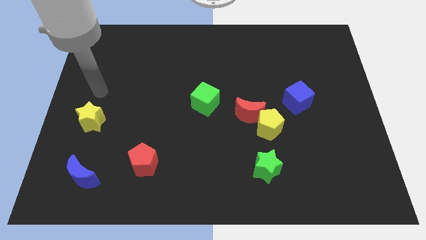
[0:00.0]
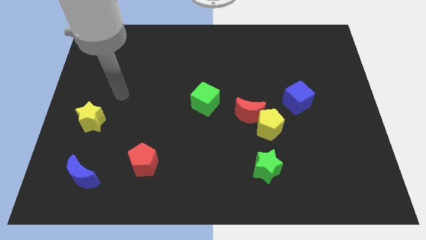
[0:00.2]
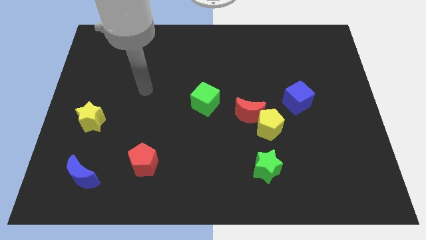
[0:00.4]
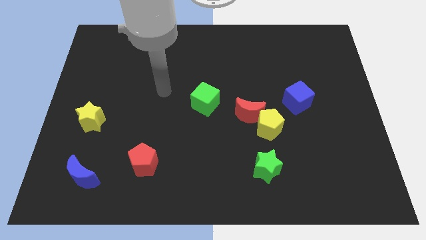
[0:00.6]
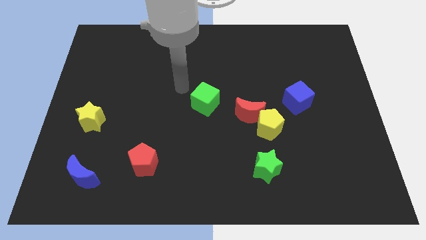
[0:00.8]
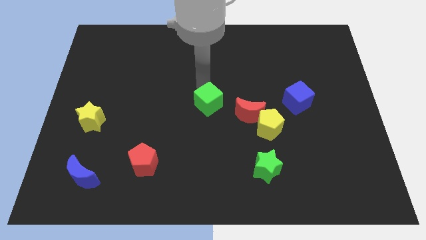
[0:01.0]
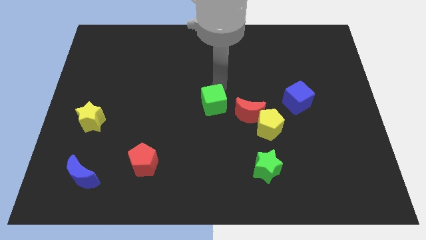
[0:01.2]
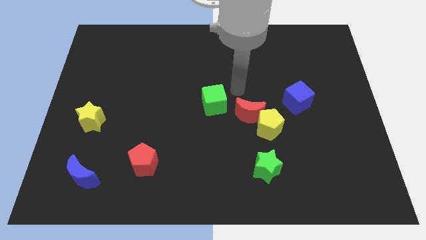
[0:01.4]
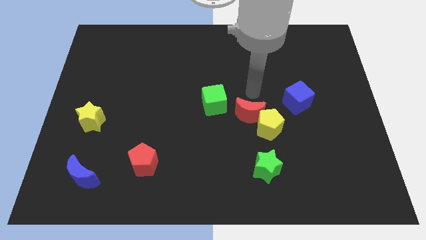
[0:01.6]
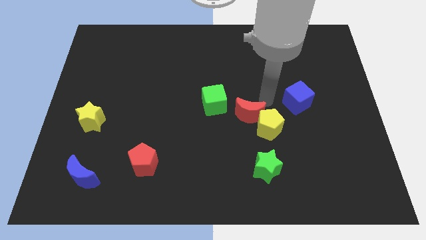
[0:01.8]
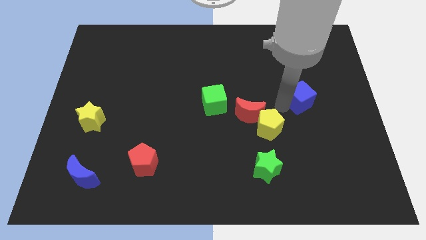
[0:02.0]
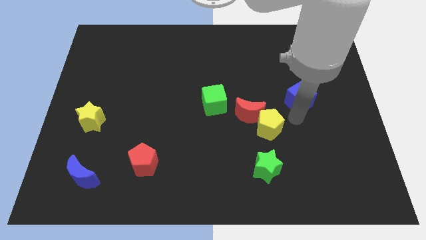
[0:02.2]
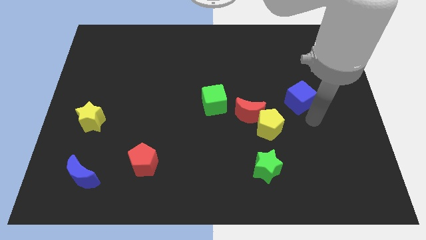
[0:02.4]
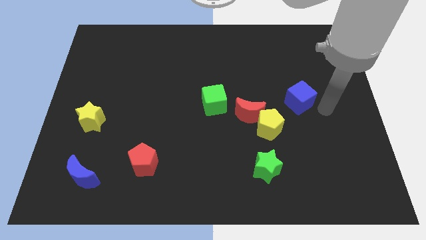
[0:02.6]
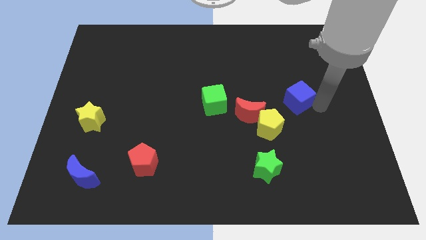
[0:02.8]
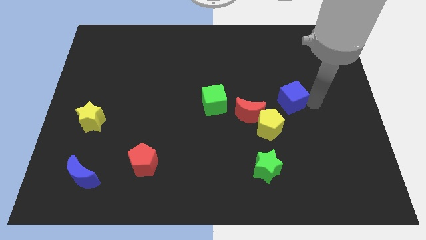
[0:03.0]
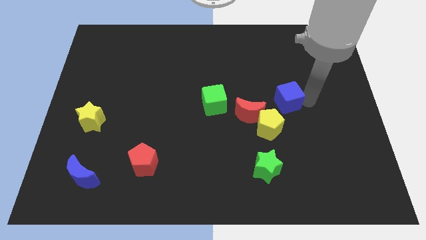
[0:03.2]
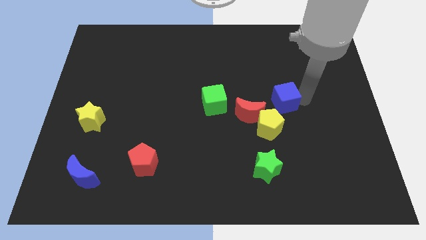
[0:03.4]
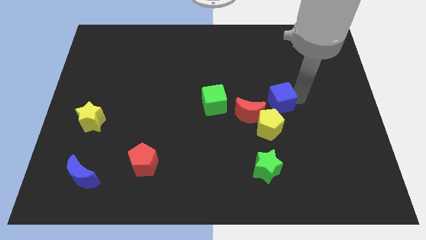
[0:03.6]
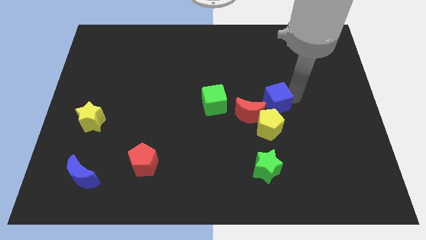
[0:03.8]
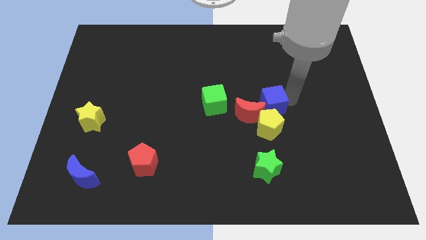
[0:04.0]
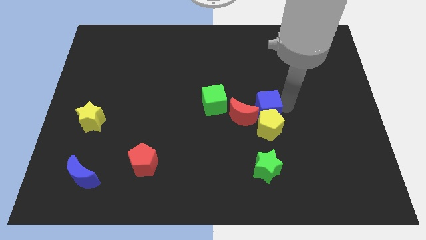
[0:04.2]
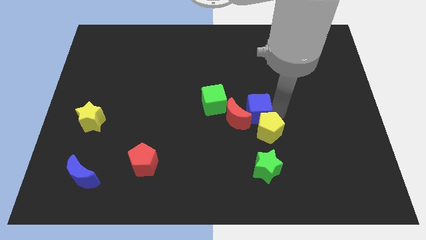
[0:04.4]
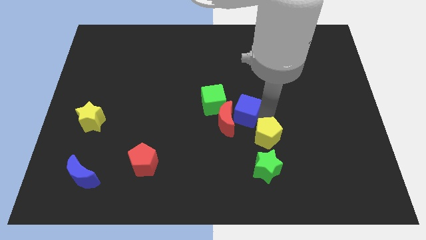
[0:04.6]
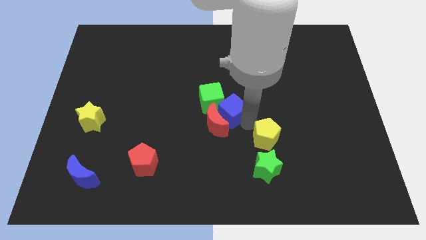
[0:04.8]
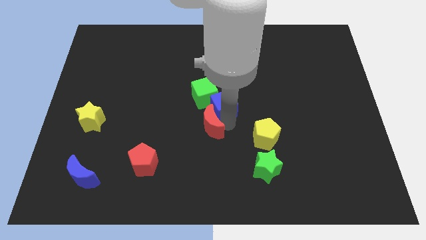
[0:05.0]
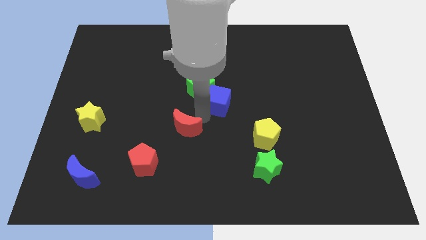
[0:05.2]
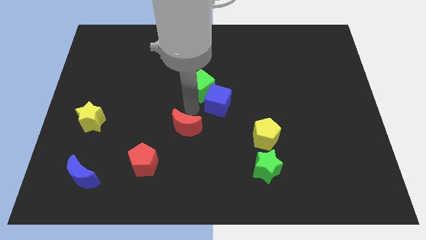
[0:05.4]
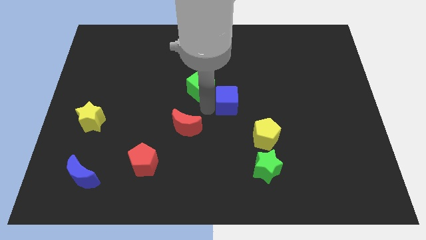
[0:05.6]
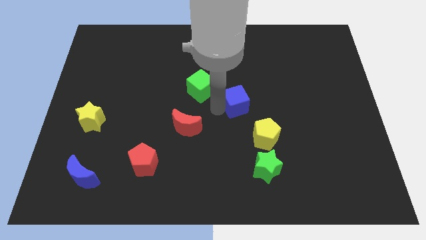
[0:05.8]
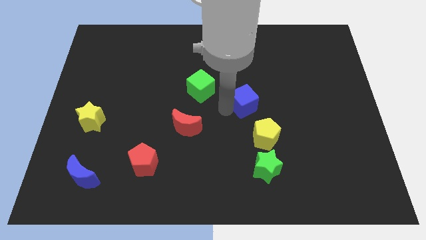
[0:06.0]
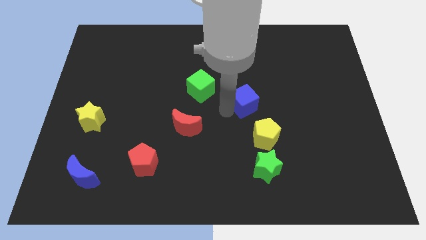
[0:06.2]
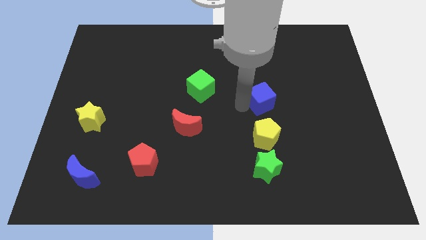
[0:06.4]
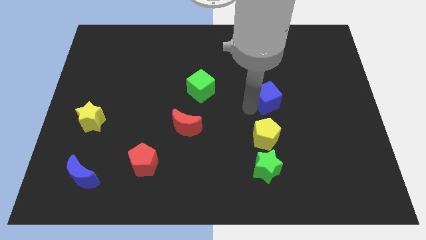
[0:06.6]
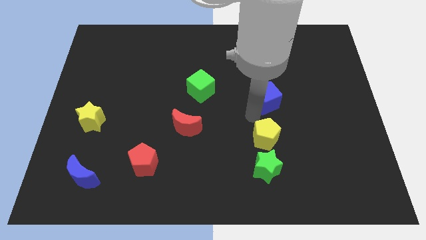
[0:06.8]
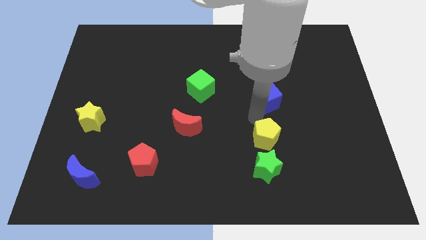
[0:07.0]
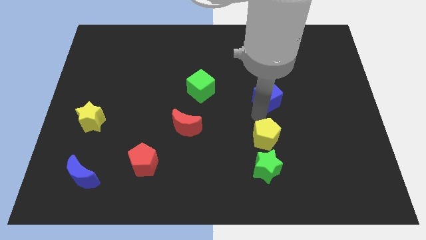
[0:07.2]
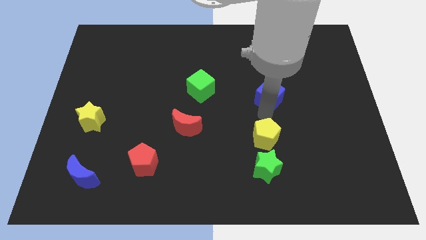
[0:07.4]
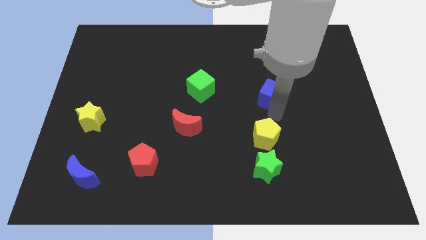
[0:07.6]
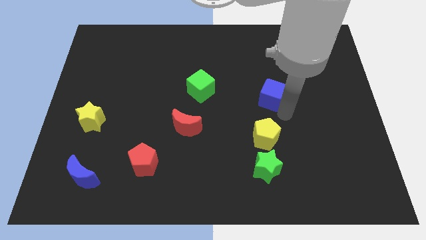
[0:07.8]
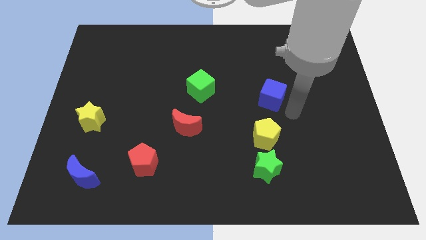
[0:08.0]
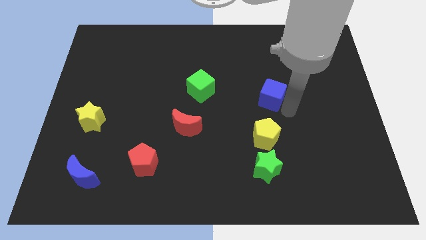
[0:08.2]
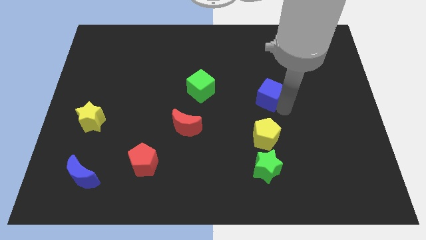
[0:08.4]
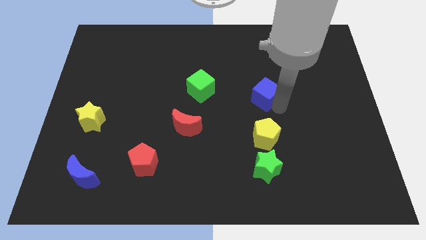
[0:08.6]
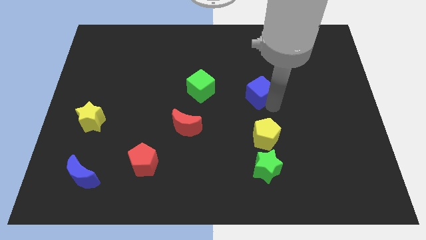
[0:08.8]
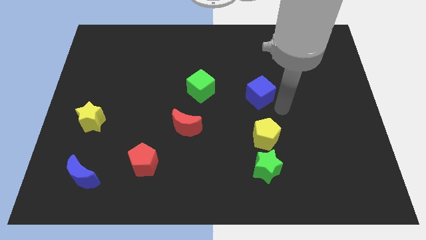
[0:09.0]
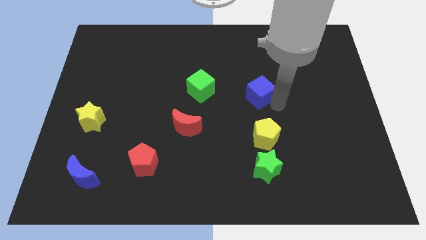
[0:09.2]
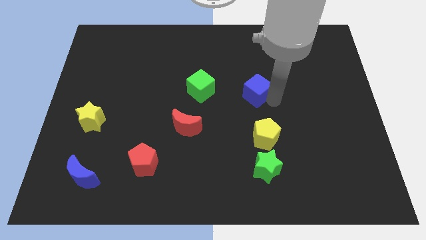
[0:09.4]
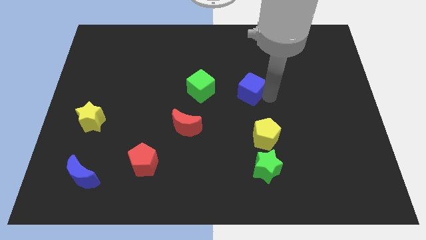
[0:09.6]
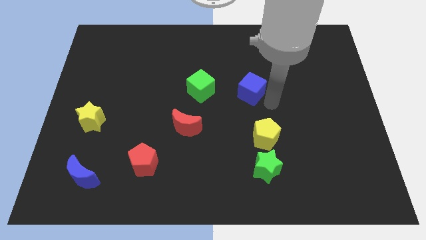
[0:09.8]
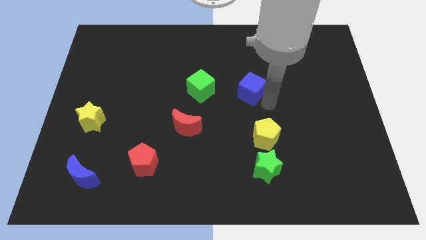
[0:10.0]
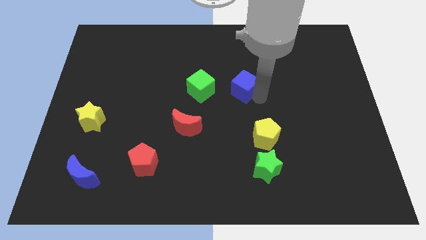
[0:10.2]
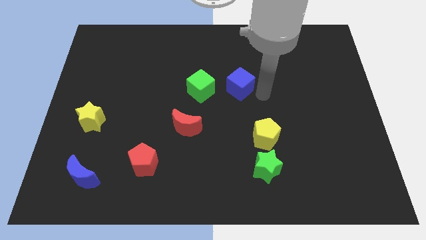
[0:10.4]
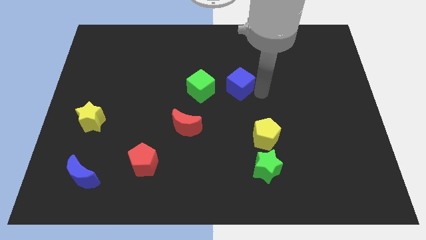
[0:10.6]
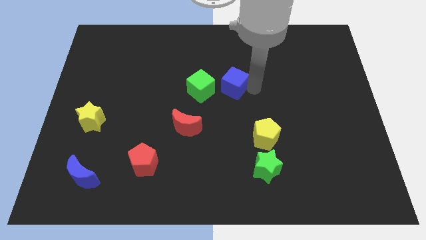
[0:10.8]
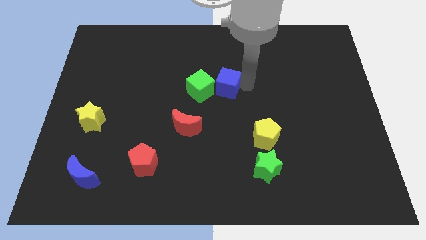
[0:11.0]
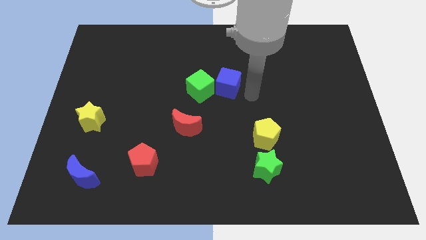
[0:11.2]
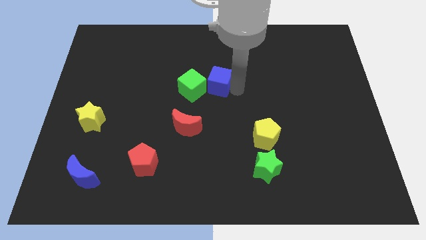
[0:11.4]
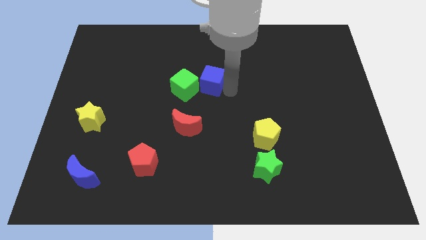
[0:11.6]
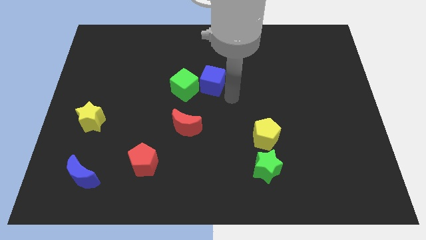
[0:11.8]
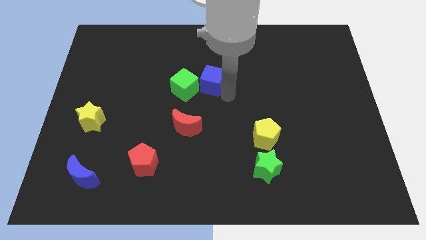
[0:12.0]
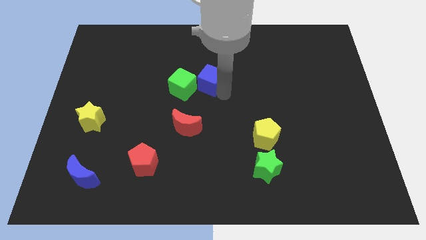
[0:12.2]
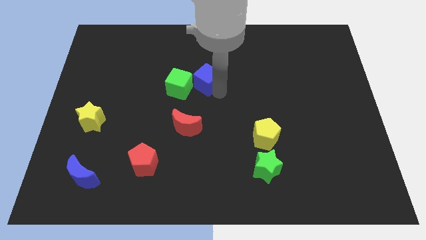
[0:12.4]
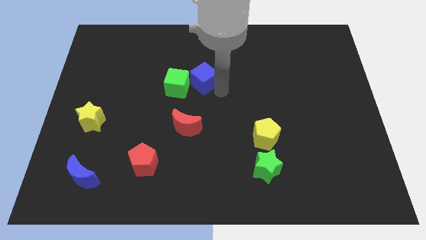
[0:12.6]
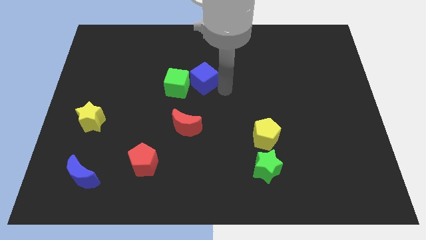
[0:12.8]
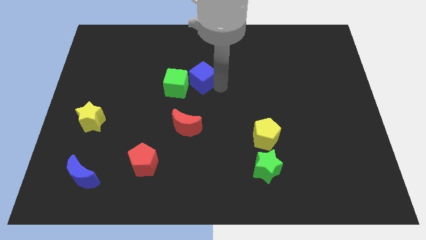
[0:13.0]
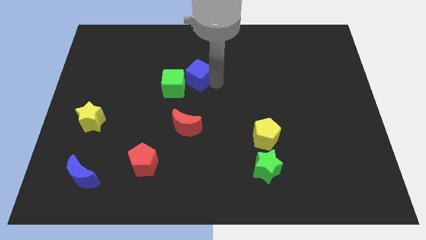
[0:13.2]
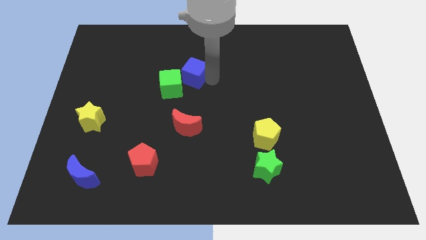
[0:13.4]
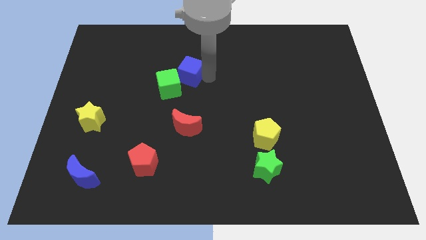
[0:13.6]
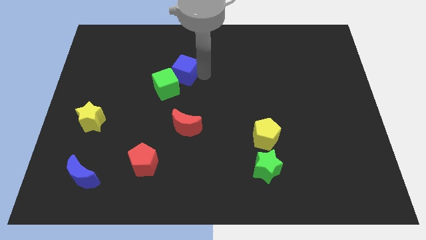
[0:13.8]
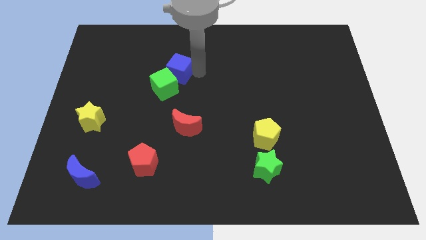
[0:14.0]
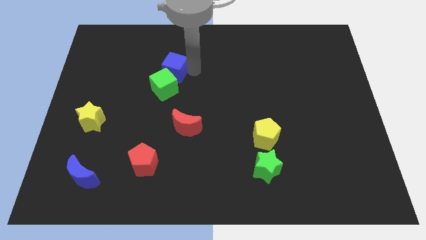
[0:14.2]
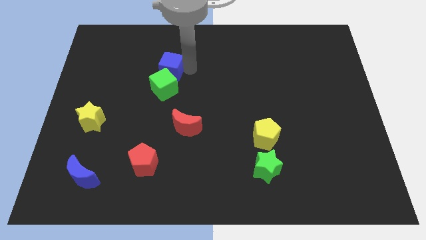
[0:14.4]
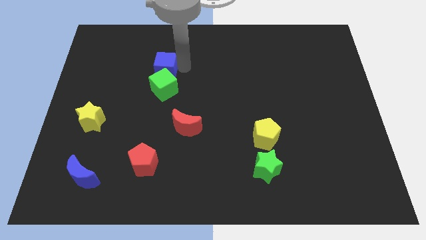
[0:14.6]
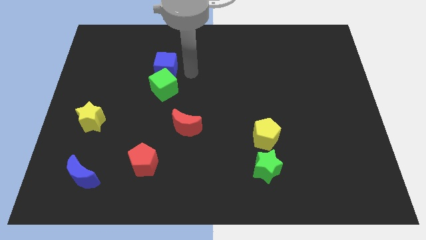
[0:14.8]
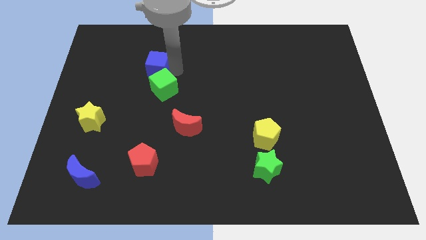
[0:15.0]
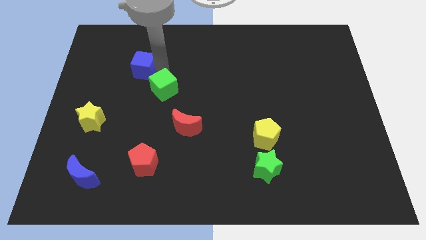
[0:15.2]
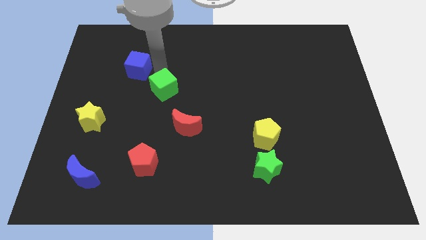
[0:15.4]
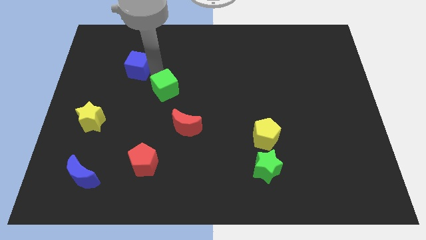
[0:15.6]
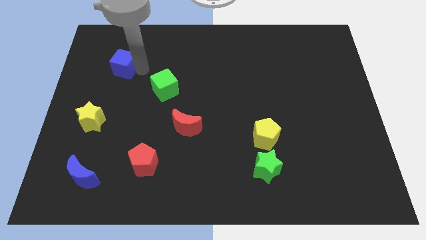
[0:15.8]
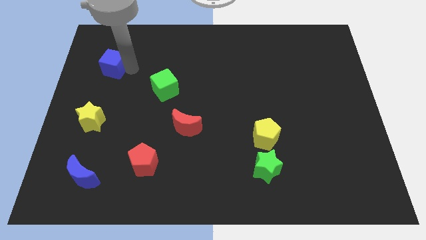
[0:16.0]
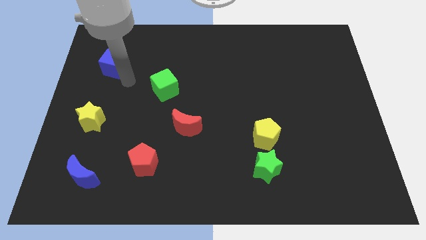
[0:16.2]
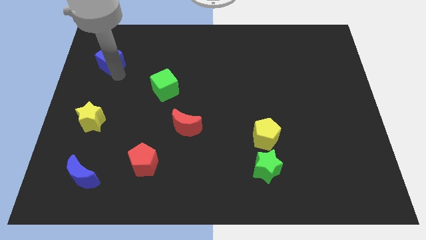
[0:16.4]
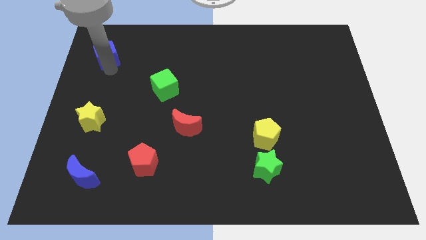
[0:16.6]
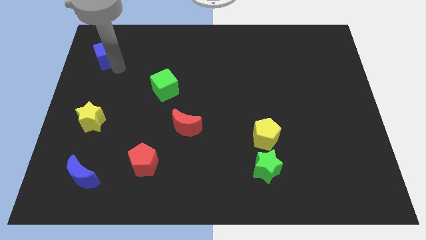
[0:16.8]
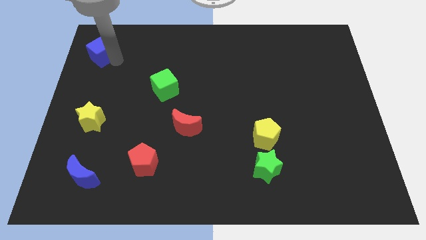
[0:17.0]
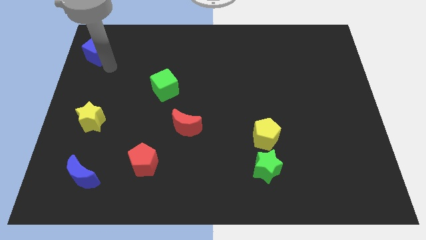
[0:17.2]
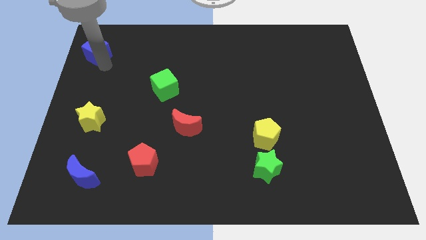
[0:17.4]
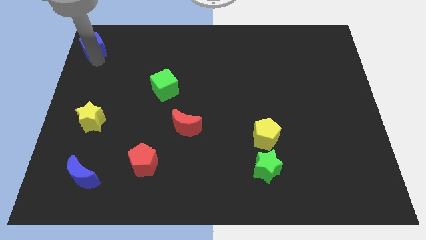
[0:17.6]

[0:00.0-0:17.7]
put the blue cube to the upper left corner
